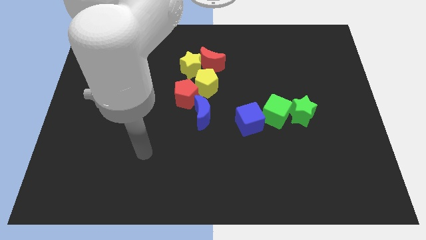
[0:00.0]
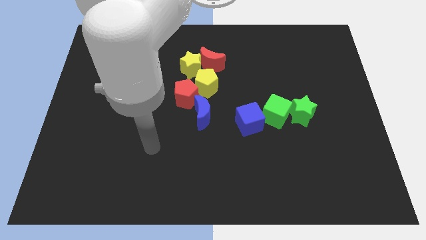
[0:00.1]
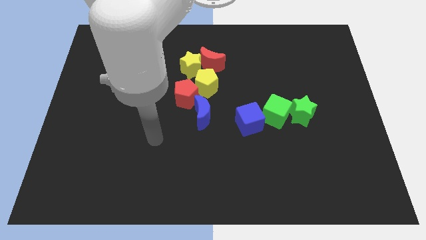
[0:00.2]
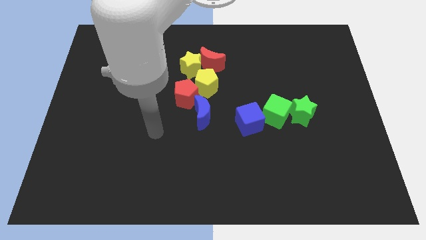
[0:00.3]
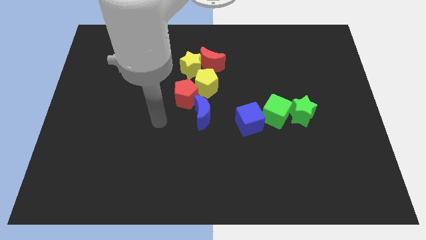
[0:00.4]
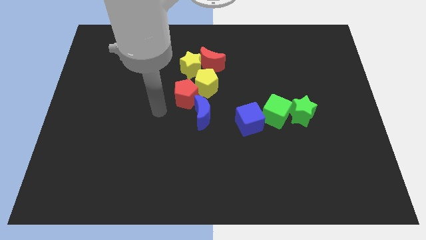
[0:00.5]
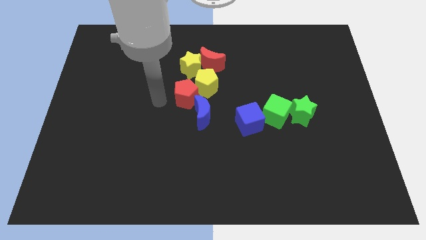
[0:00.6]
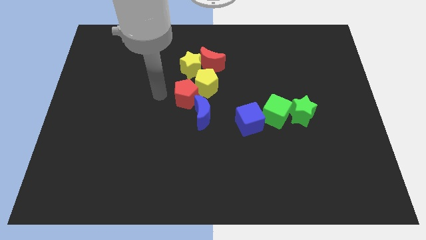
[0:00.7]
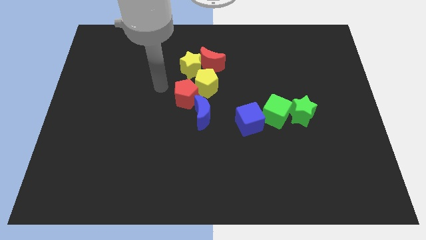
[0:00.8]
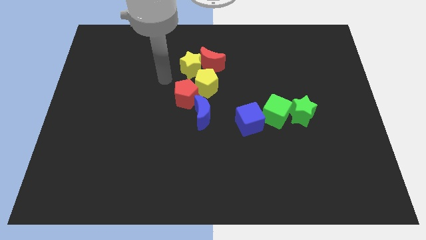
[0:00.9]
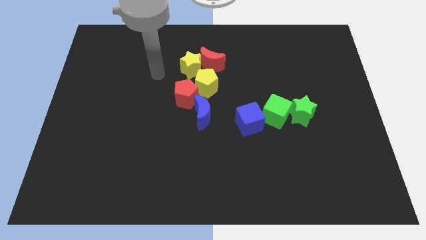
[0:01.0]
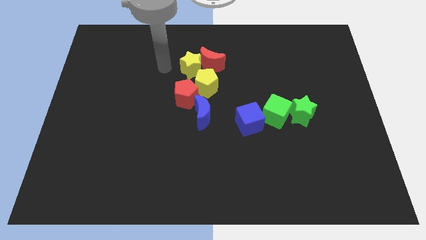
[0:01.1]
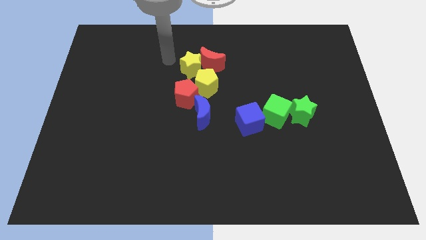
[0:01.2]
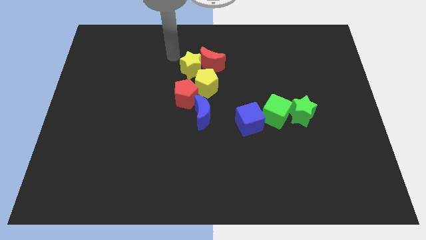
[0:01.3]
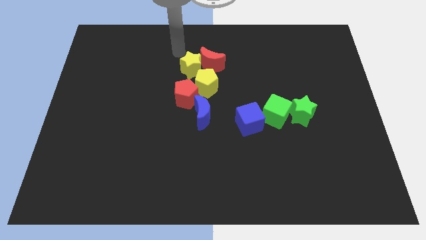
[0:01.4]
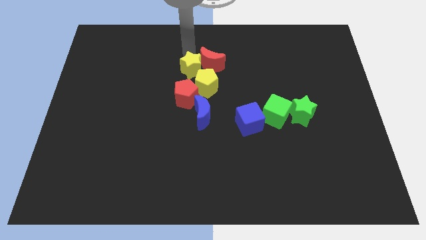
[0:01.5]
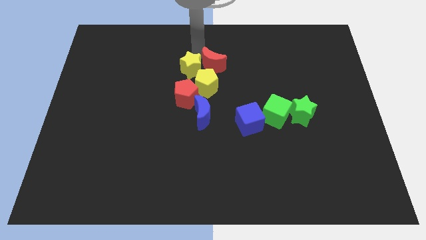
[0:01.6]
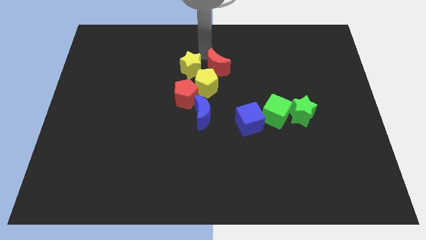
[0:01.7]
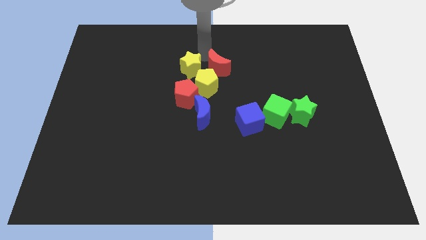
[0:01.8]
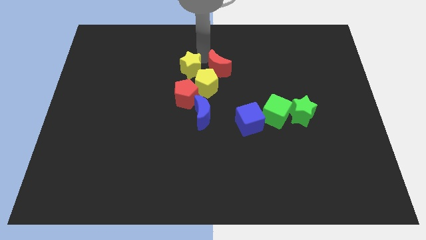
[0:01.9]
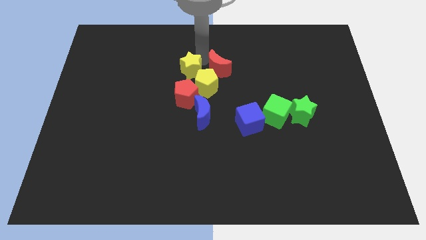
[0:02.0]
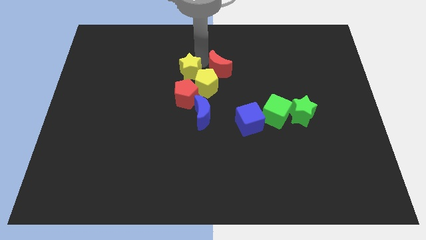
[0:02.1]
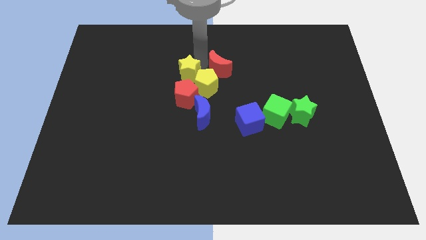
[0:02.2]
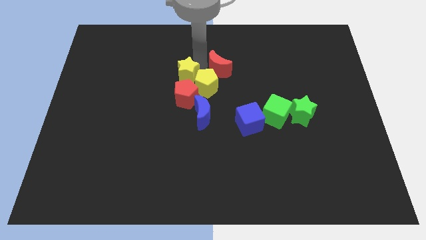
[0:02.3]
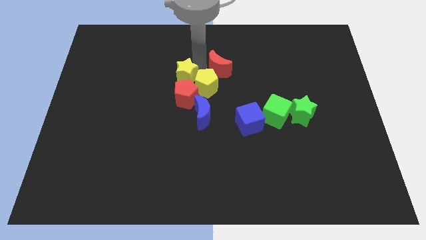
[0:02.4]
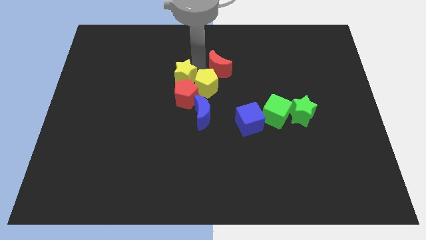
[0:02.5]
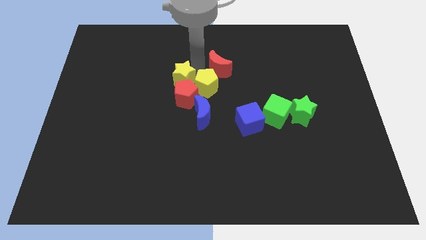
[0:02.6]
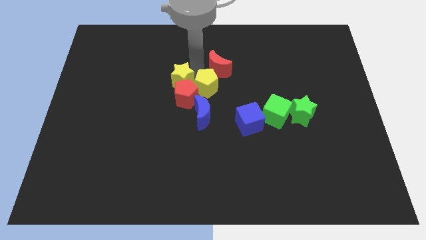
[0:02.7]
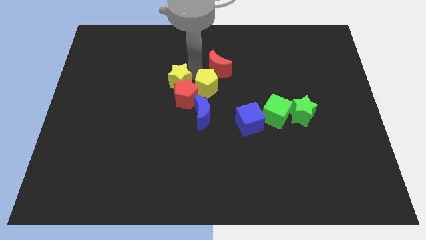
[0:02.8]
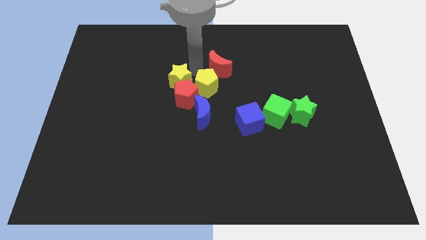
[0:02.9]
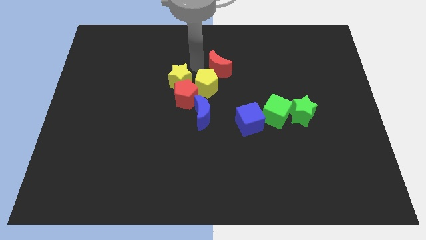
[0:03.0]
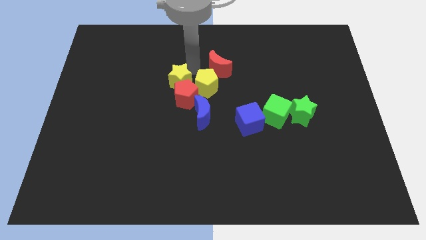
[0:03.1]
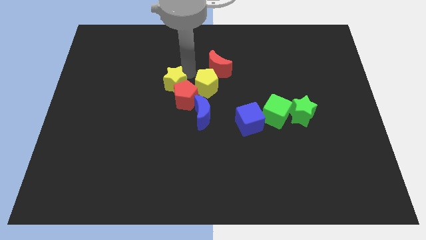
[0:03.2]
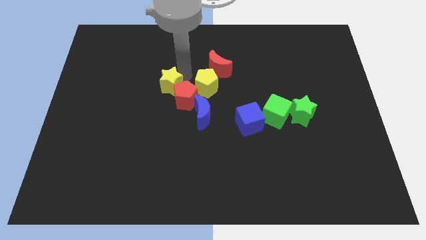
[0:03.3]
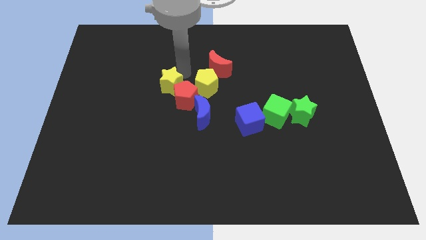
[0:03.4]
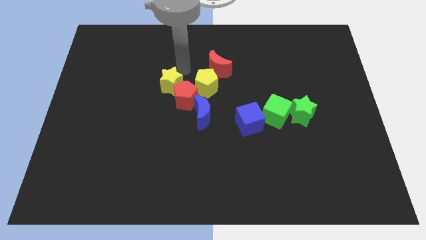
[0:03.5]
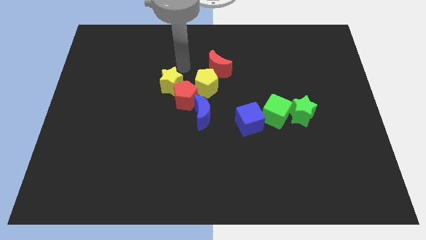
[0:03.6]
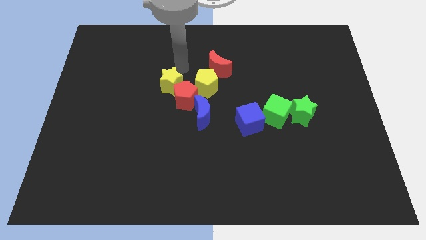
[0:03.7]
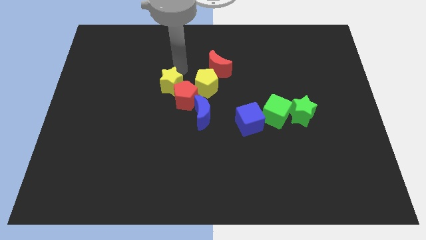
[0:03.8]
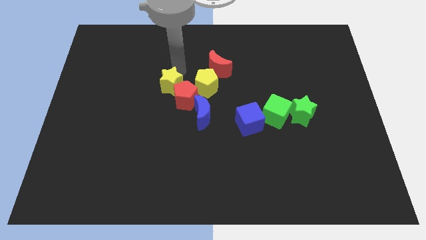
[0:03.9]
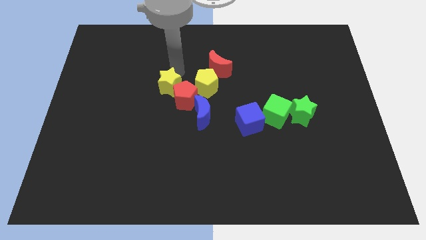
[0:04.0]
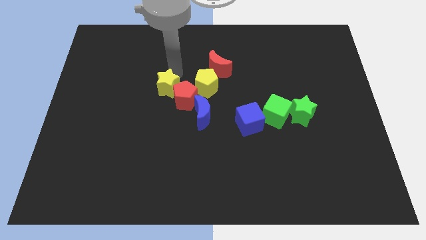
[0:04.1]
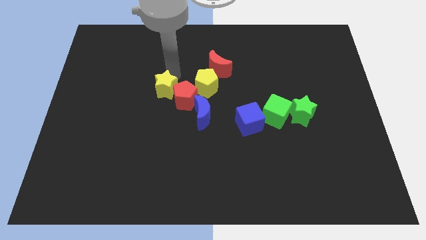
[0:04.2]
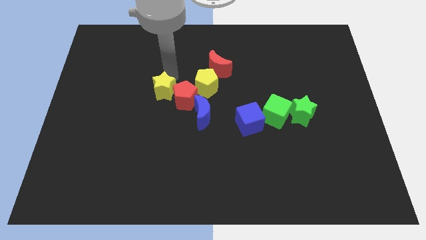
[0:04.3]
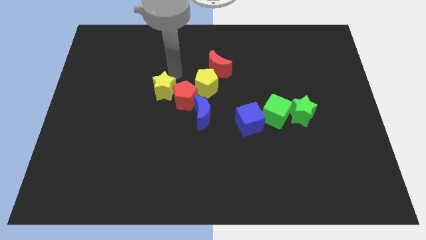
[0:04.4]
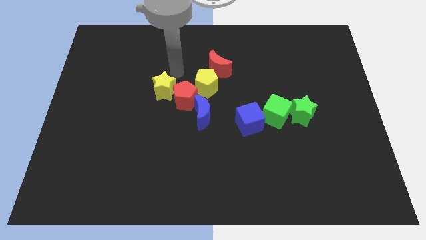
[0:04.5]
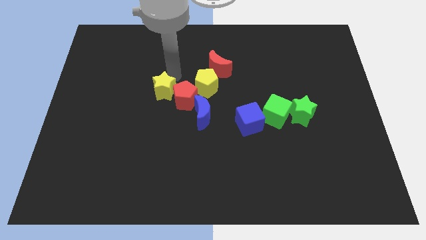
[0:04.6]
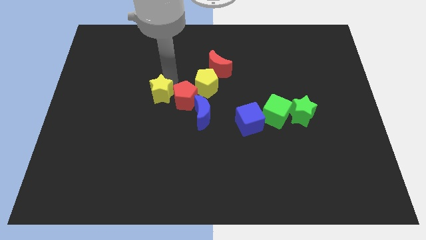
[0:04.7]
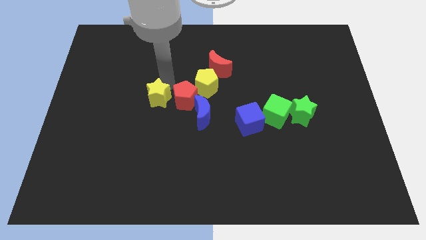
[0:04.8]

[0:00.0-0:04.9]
slightly slide the yellow star downwards

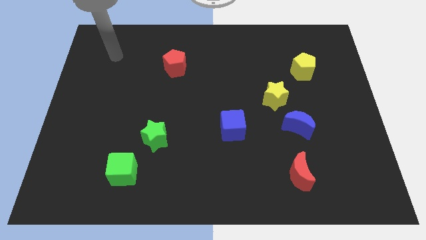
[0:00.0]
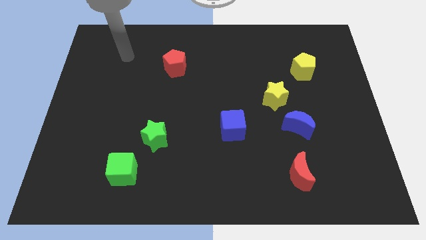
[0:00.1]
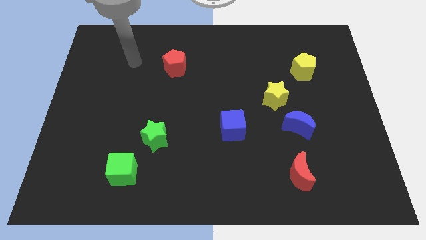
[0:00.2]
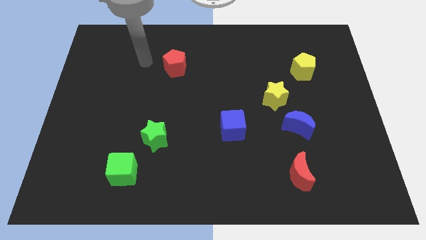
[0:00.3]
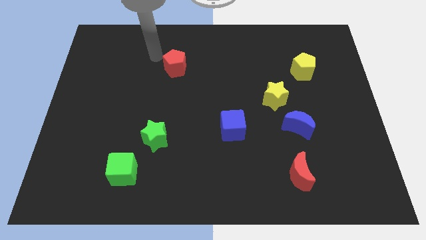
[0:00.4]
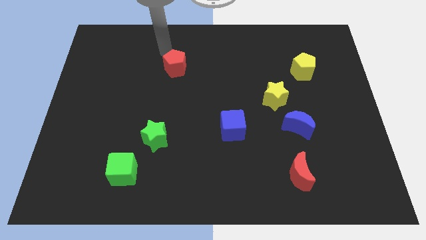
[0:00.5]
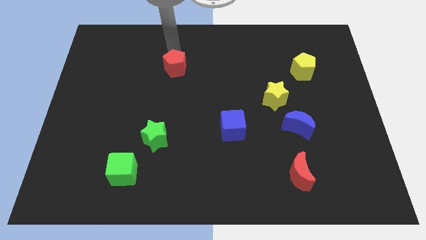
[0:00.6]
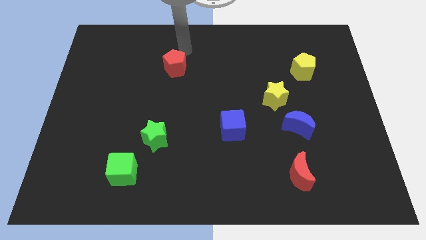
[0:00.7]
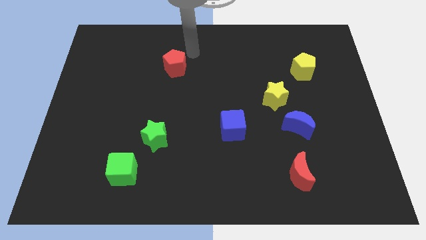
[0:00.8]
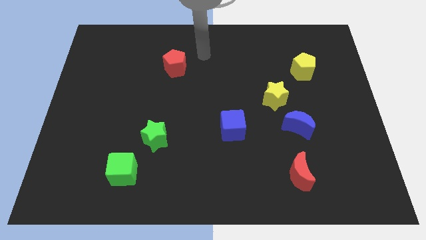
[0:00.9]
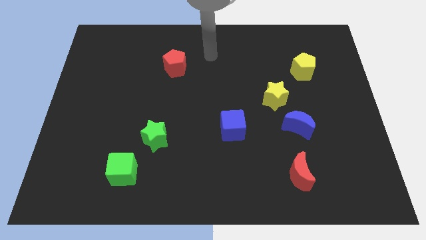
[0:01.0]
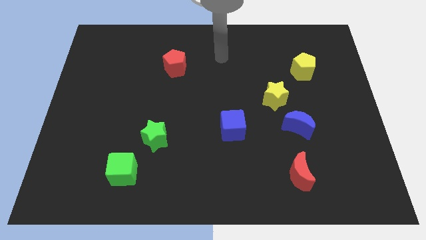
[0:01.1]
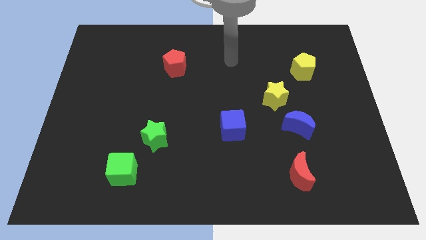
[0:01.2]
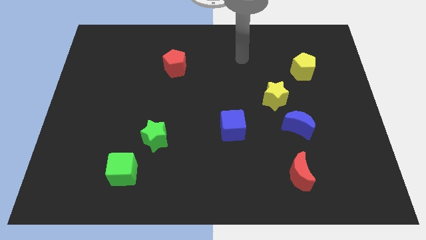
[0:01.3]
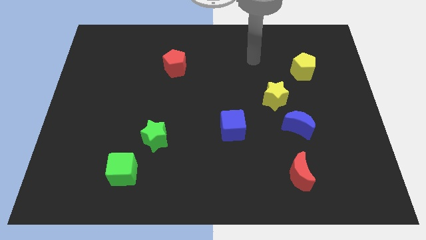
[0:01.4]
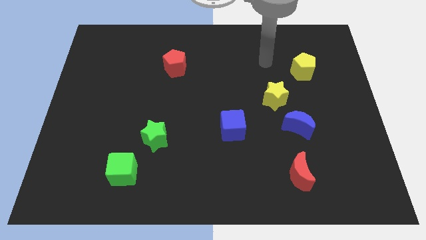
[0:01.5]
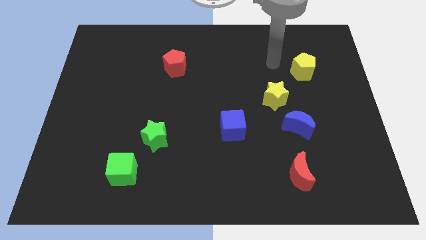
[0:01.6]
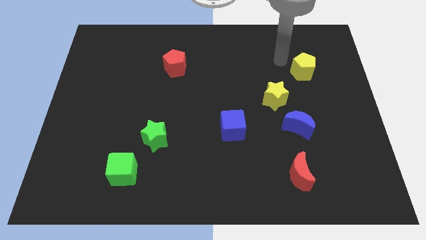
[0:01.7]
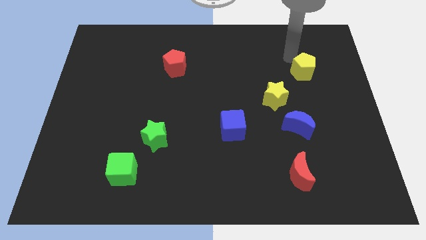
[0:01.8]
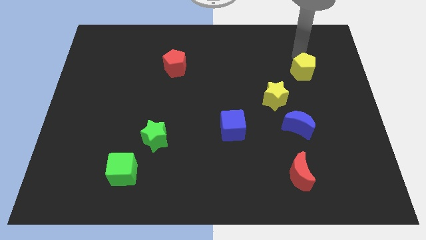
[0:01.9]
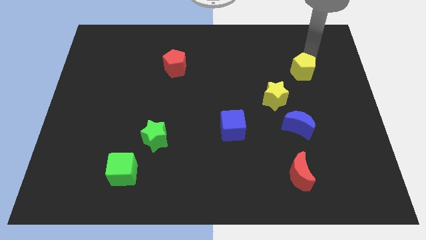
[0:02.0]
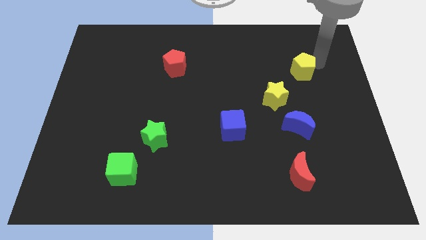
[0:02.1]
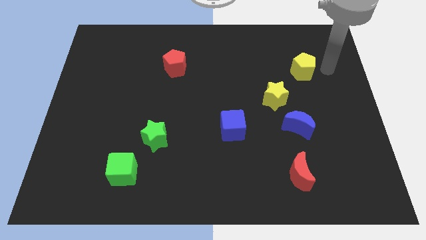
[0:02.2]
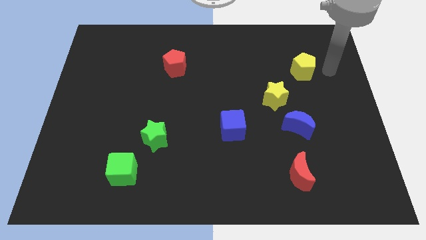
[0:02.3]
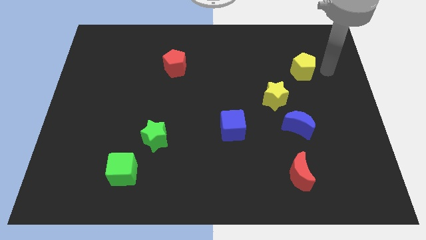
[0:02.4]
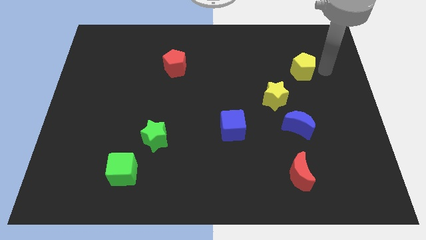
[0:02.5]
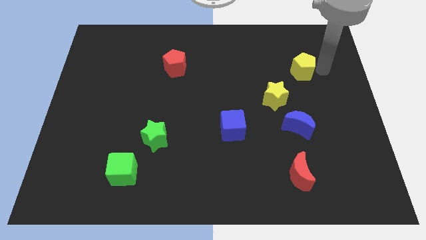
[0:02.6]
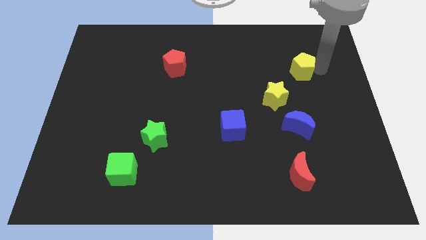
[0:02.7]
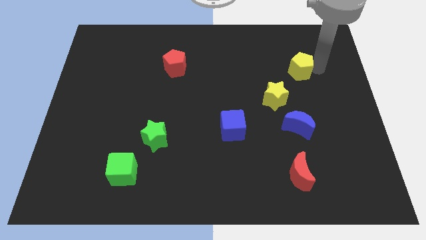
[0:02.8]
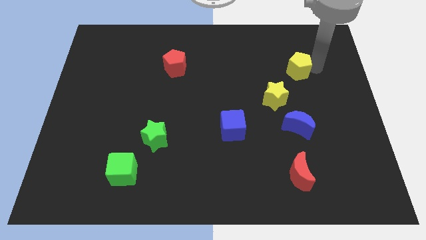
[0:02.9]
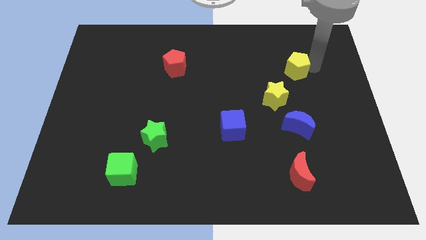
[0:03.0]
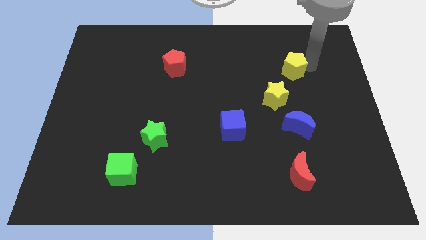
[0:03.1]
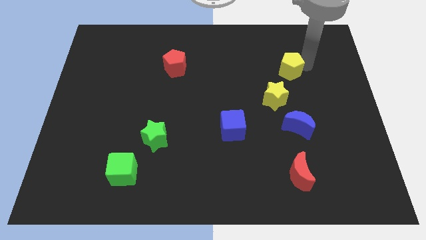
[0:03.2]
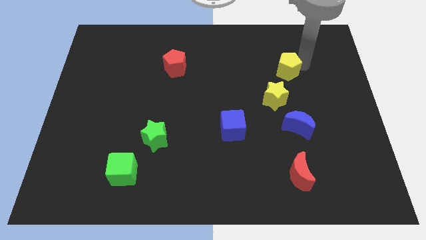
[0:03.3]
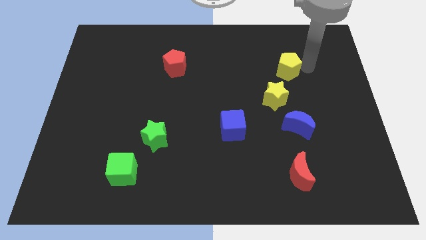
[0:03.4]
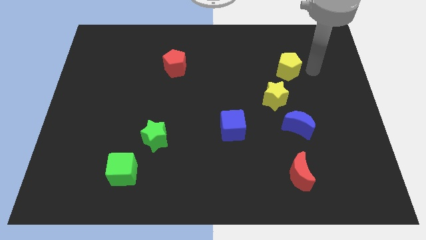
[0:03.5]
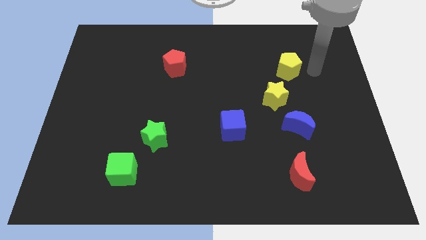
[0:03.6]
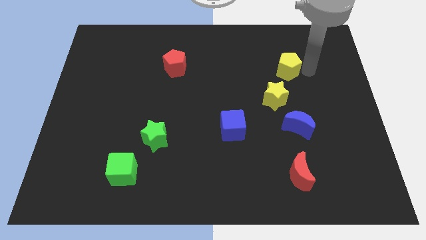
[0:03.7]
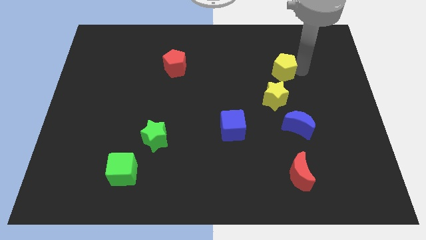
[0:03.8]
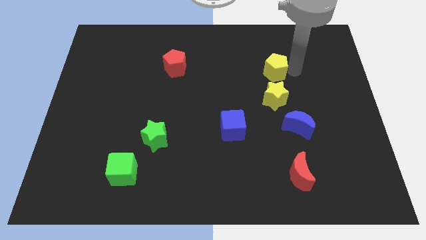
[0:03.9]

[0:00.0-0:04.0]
slide the yellow pentagon somewhat to the left
